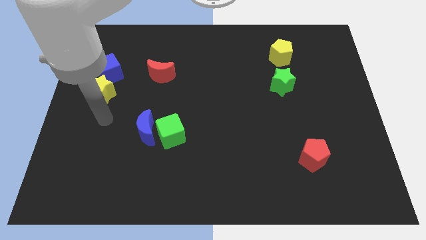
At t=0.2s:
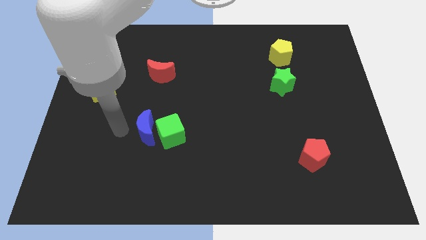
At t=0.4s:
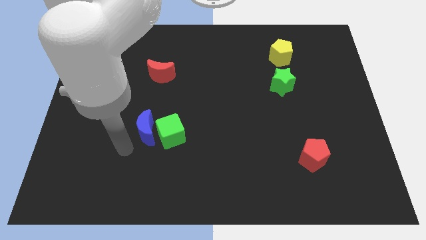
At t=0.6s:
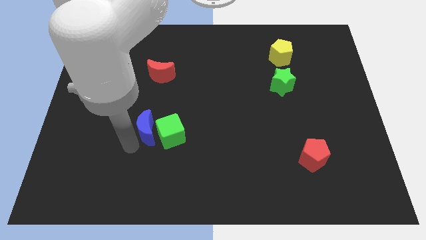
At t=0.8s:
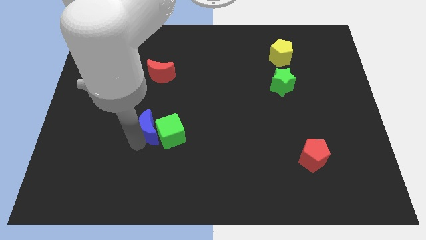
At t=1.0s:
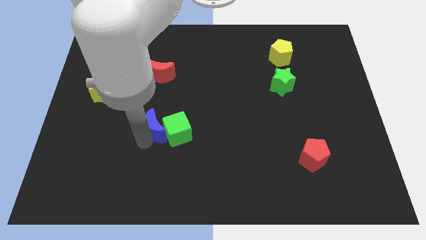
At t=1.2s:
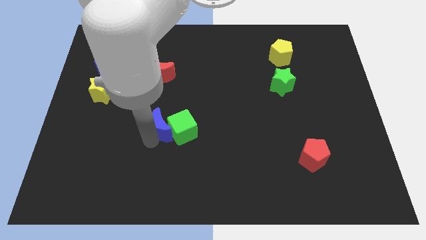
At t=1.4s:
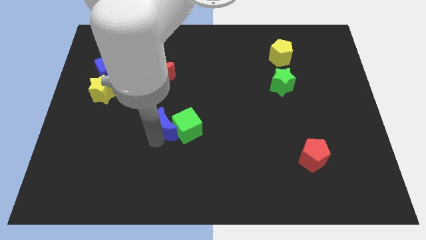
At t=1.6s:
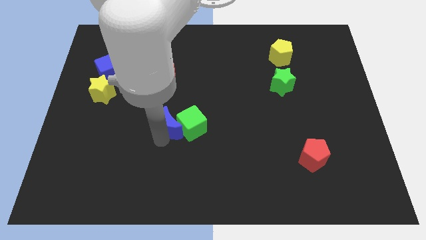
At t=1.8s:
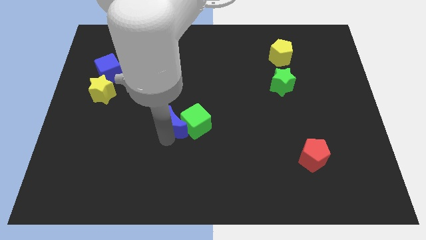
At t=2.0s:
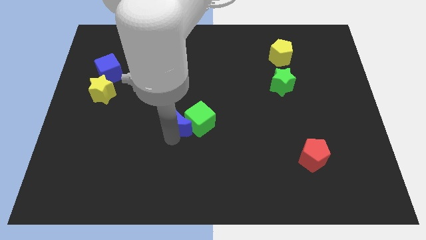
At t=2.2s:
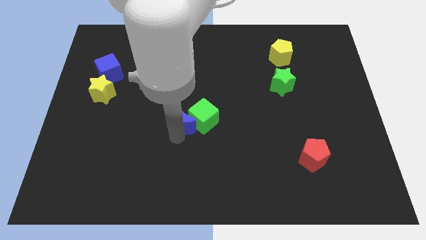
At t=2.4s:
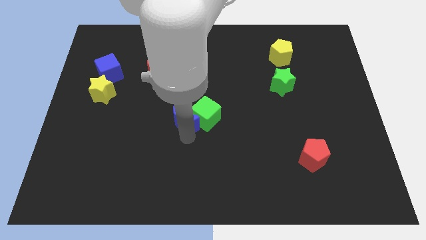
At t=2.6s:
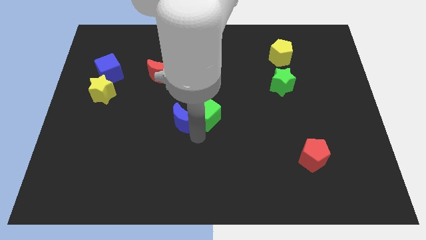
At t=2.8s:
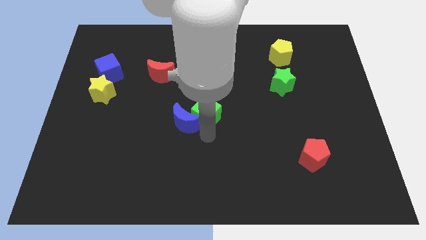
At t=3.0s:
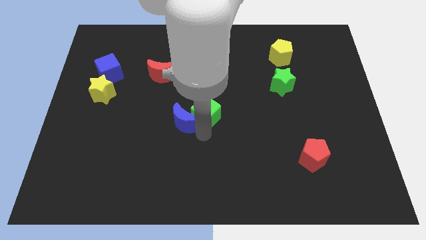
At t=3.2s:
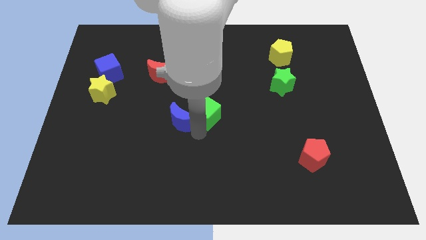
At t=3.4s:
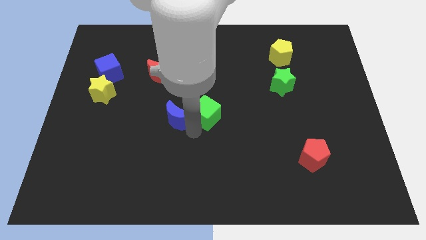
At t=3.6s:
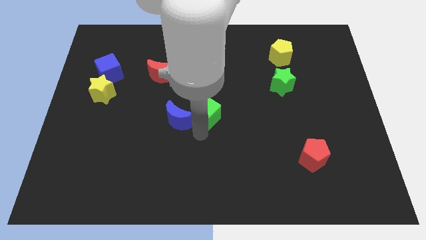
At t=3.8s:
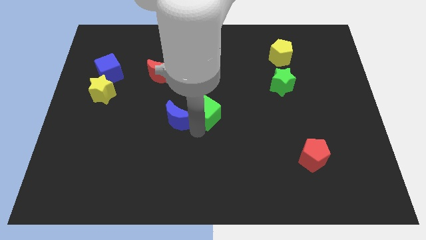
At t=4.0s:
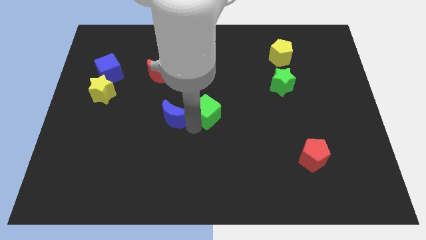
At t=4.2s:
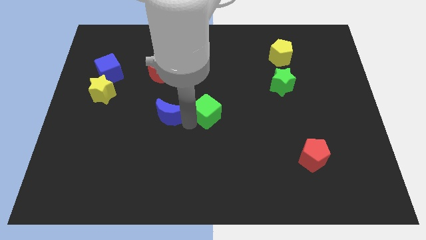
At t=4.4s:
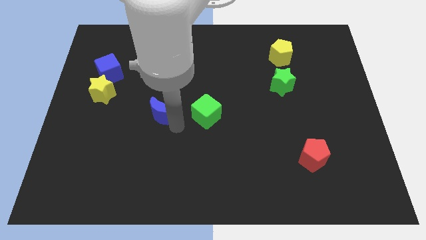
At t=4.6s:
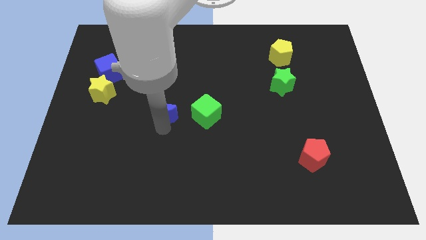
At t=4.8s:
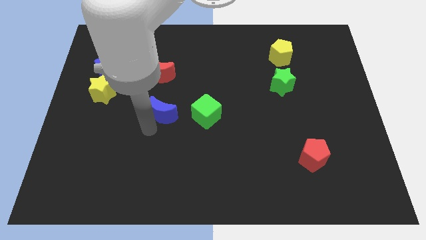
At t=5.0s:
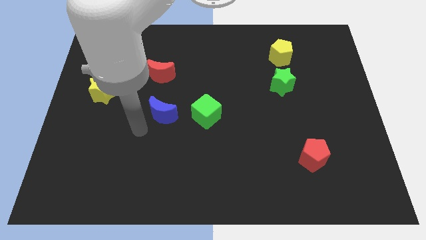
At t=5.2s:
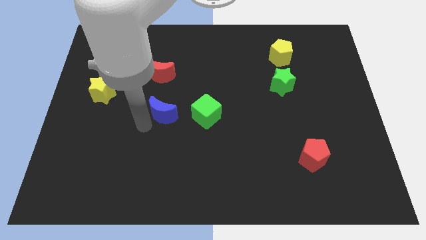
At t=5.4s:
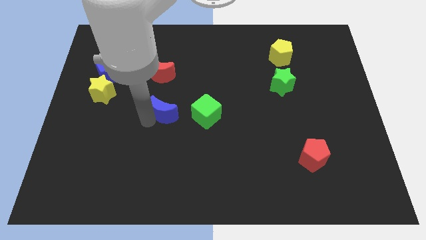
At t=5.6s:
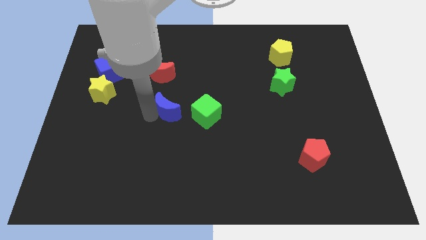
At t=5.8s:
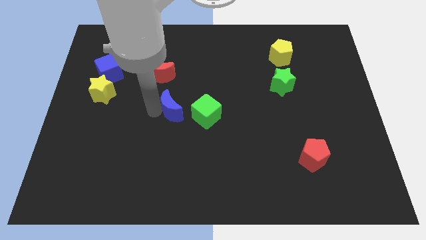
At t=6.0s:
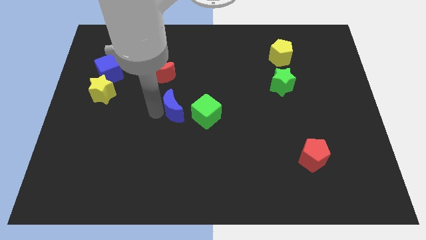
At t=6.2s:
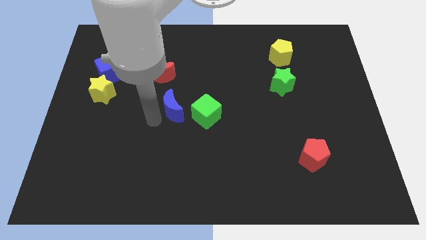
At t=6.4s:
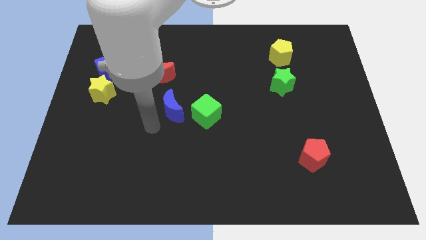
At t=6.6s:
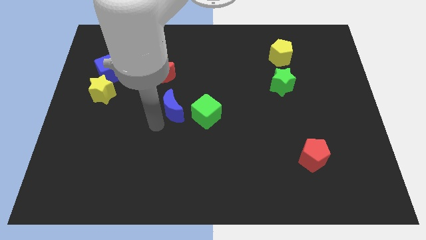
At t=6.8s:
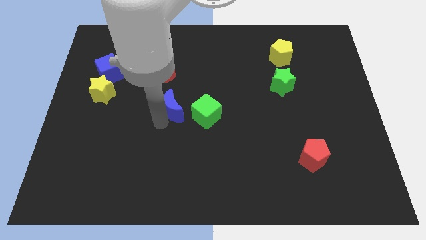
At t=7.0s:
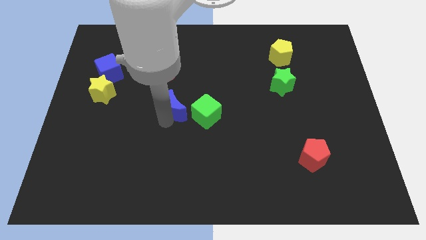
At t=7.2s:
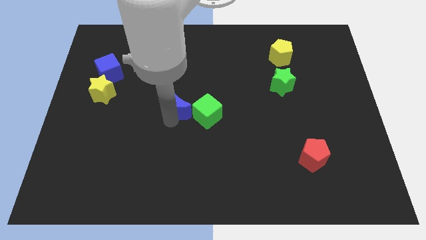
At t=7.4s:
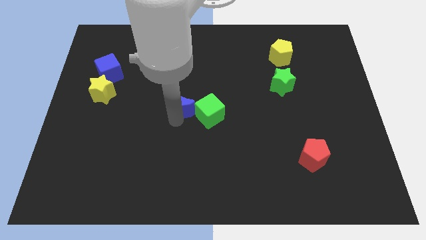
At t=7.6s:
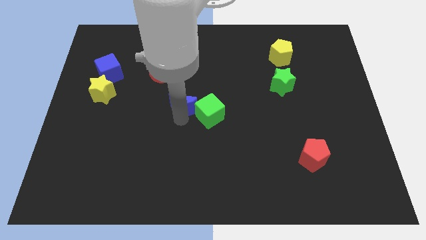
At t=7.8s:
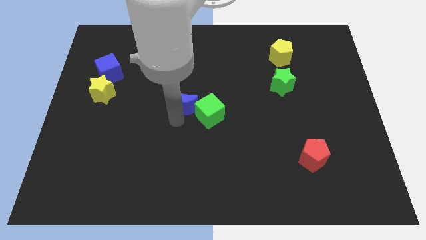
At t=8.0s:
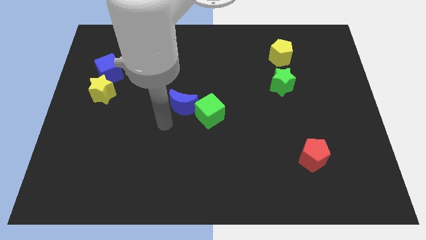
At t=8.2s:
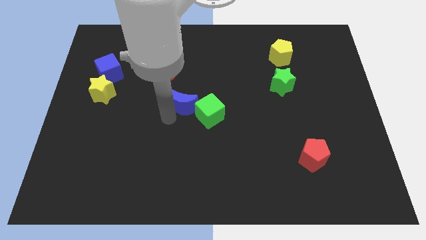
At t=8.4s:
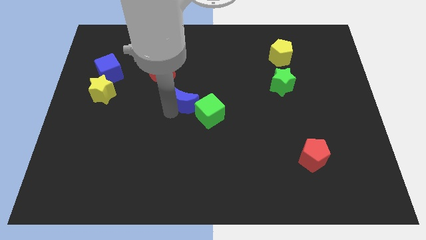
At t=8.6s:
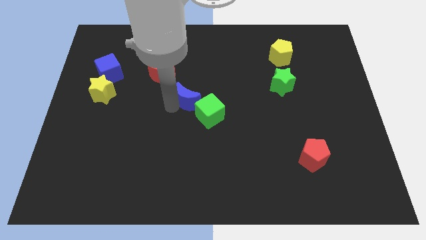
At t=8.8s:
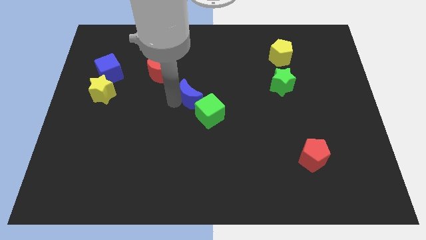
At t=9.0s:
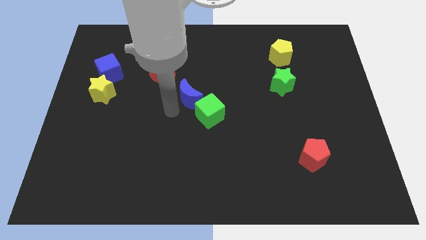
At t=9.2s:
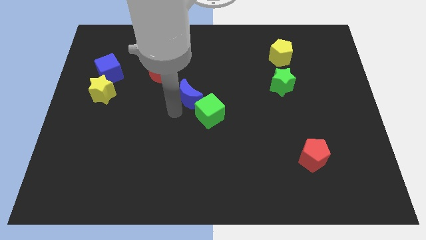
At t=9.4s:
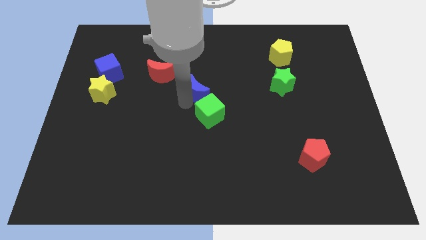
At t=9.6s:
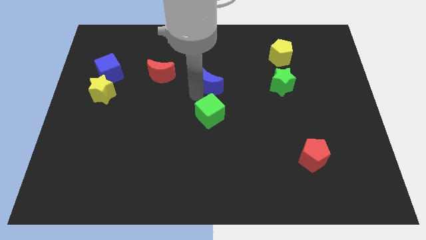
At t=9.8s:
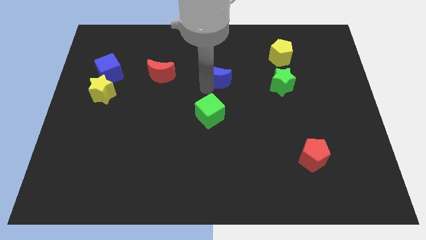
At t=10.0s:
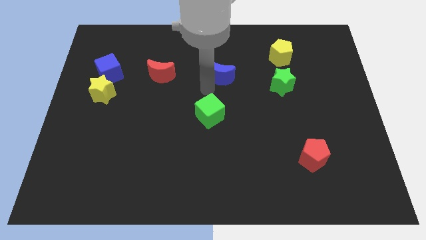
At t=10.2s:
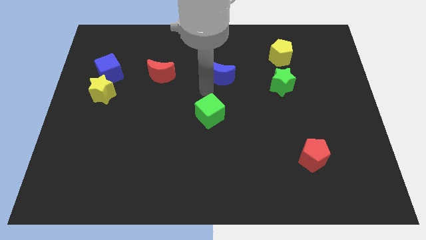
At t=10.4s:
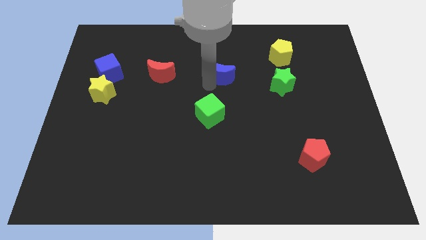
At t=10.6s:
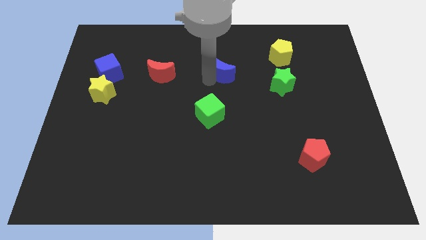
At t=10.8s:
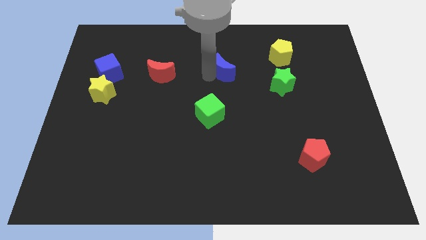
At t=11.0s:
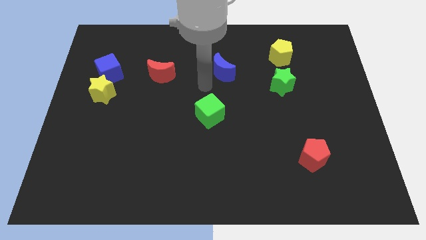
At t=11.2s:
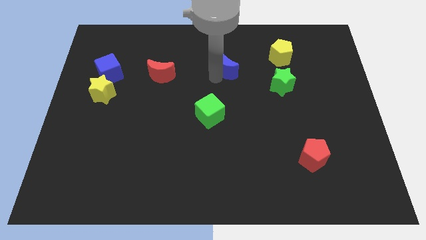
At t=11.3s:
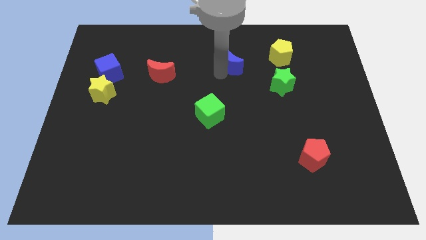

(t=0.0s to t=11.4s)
put the blue moon to the left of the yellow pentagon

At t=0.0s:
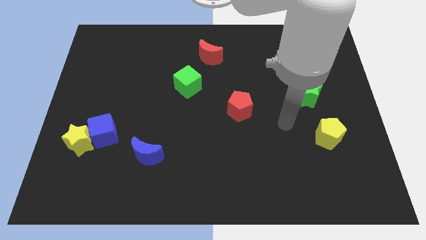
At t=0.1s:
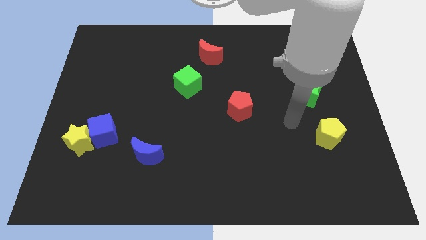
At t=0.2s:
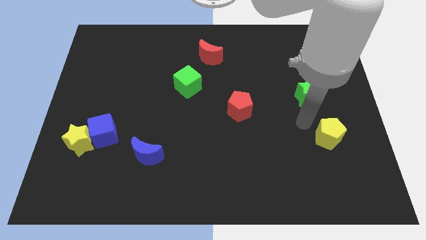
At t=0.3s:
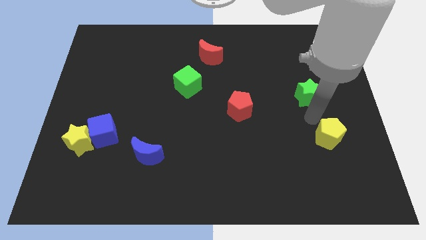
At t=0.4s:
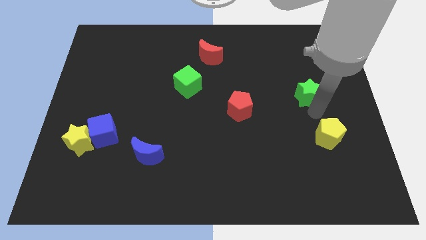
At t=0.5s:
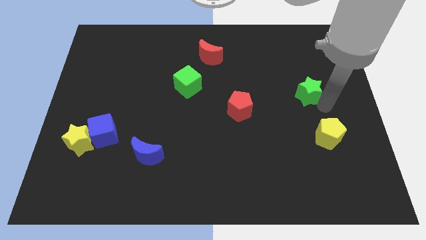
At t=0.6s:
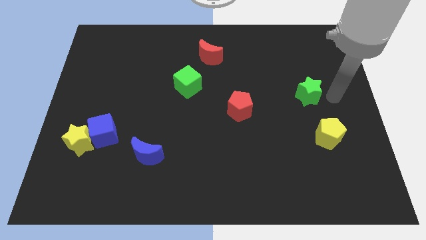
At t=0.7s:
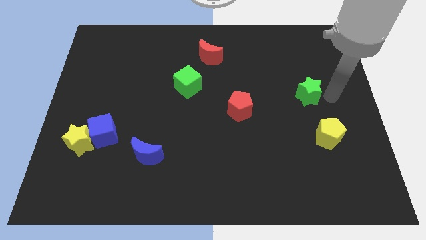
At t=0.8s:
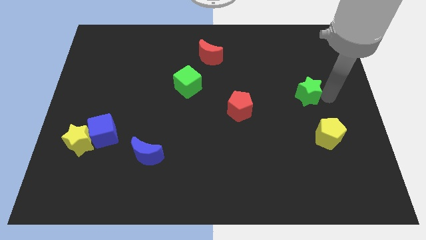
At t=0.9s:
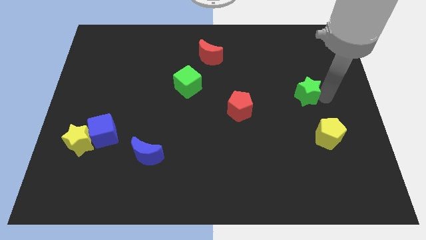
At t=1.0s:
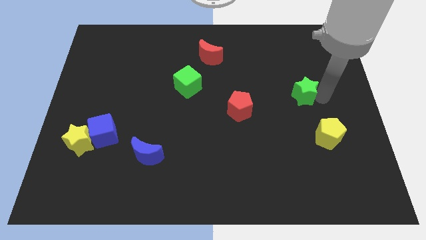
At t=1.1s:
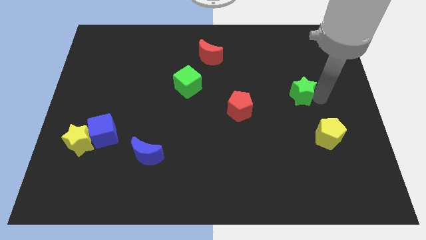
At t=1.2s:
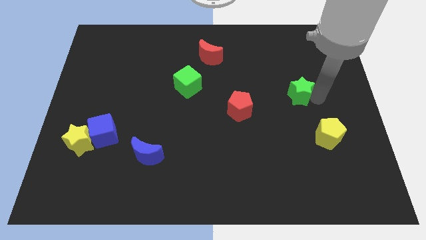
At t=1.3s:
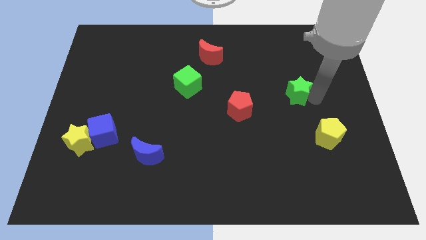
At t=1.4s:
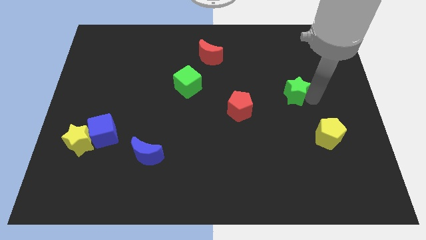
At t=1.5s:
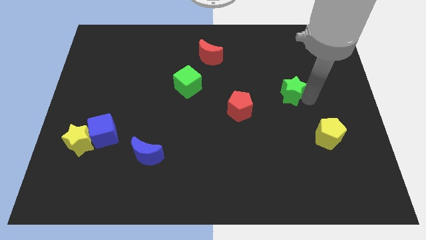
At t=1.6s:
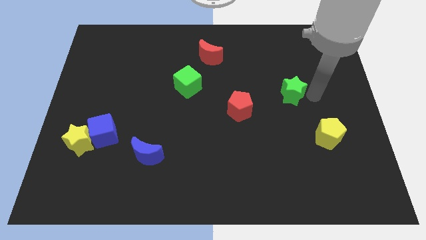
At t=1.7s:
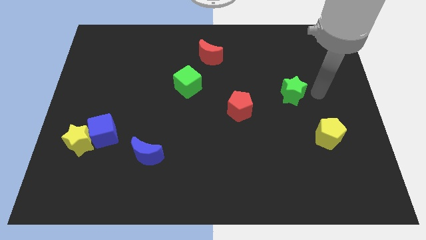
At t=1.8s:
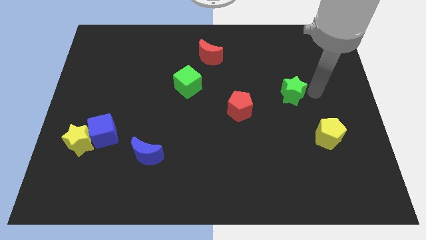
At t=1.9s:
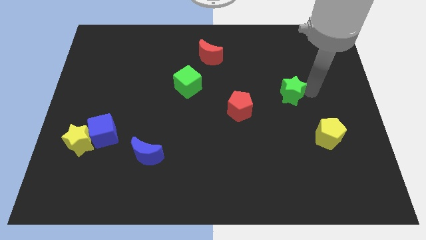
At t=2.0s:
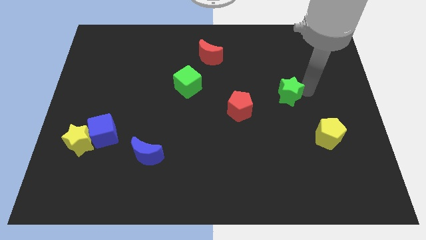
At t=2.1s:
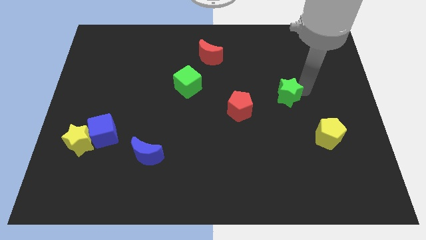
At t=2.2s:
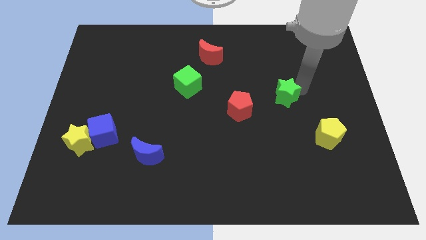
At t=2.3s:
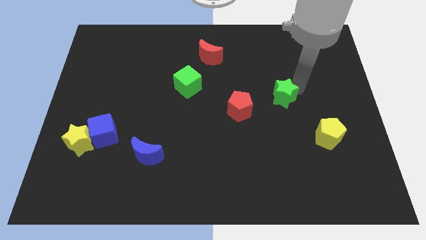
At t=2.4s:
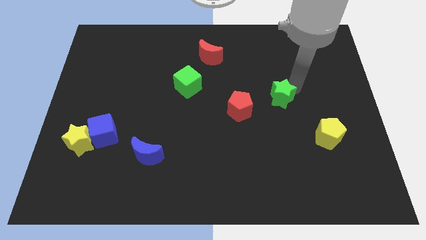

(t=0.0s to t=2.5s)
move the green star to the top right of the red pentagon
